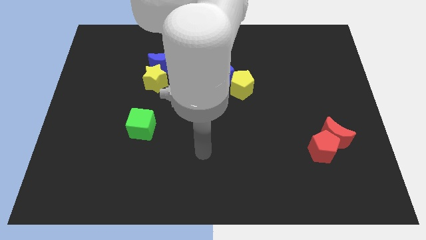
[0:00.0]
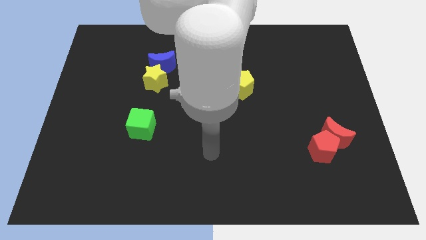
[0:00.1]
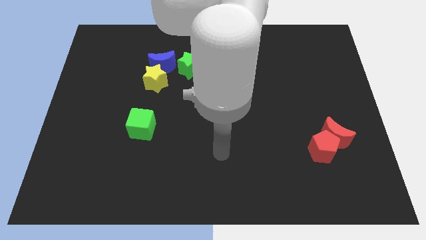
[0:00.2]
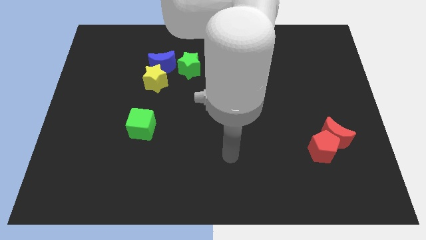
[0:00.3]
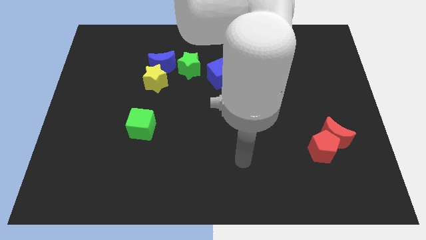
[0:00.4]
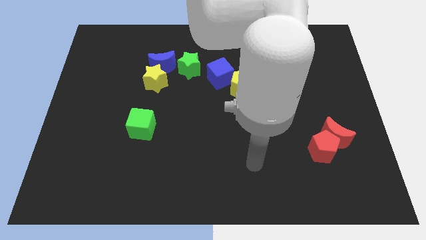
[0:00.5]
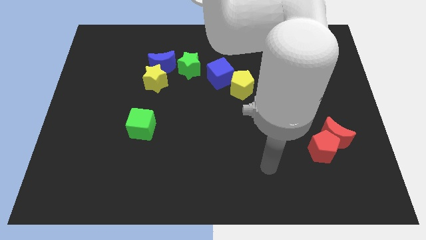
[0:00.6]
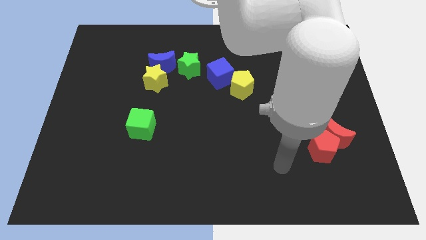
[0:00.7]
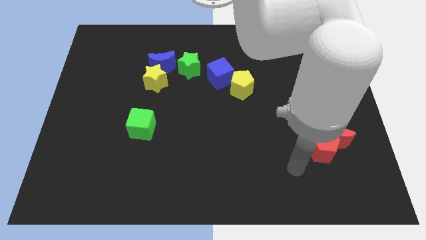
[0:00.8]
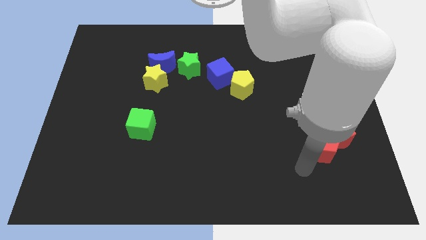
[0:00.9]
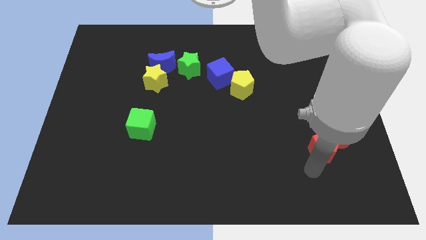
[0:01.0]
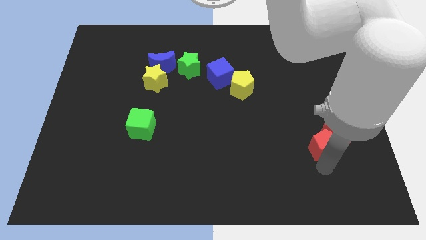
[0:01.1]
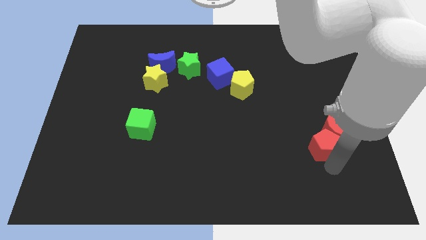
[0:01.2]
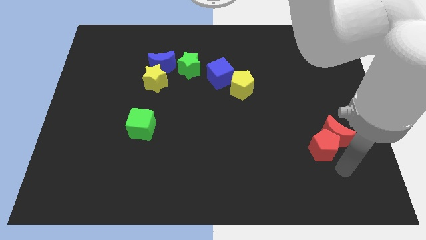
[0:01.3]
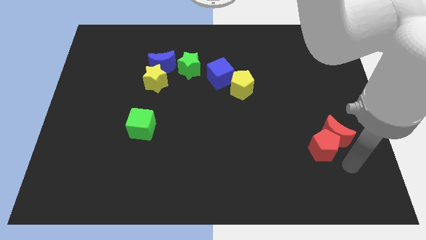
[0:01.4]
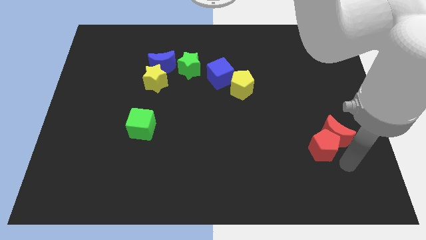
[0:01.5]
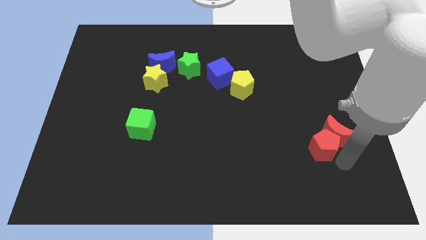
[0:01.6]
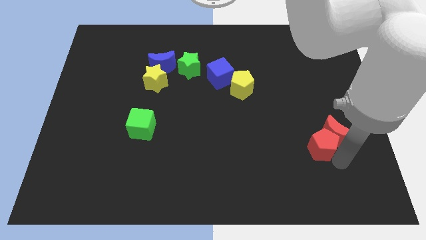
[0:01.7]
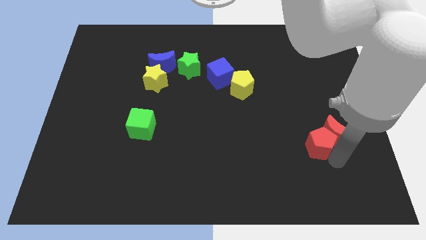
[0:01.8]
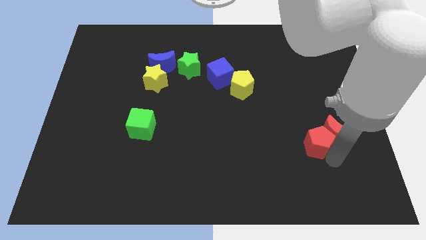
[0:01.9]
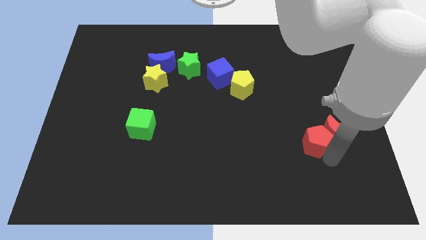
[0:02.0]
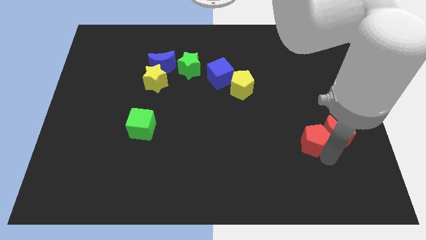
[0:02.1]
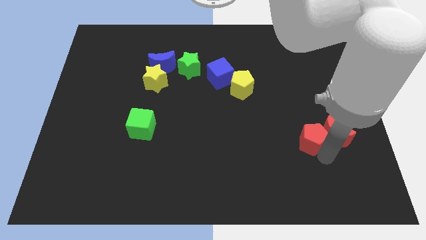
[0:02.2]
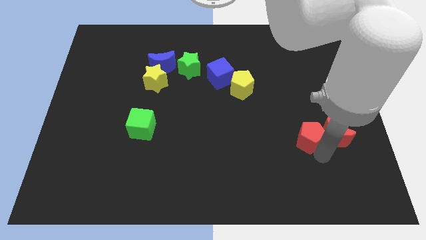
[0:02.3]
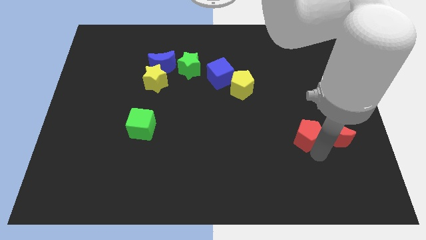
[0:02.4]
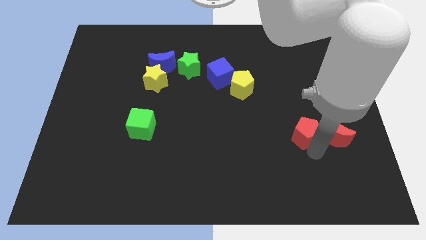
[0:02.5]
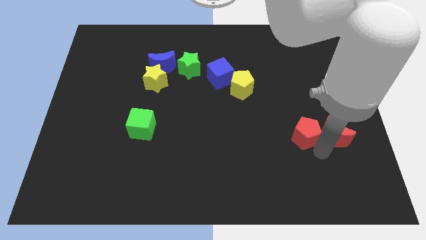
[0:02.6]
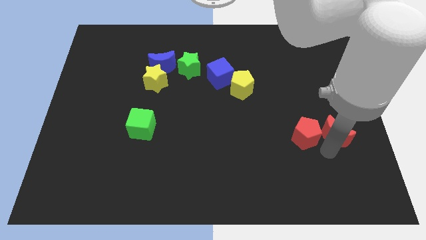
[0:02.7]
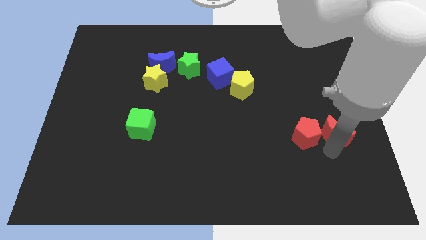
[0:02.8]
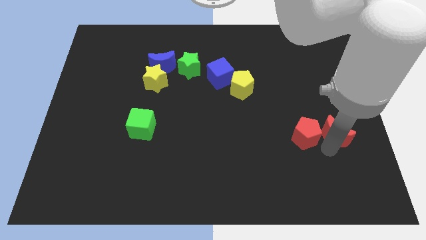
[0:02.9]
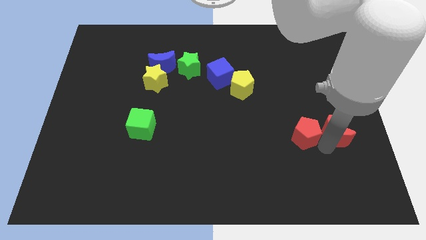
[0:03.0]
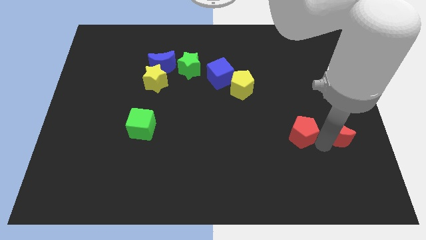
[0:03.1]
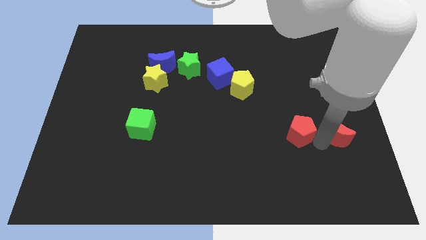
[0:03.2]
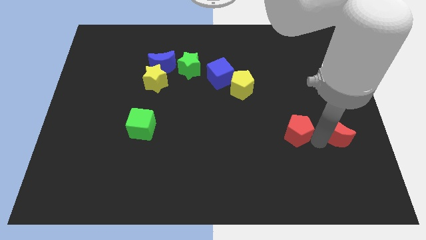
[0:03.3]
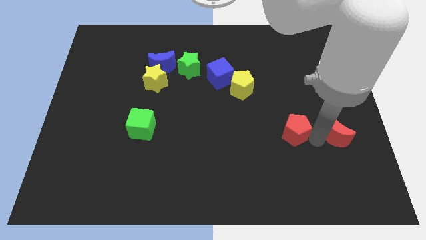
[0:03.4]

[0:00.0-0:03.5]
slide the red pentagon upwards and to the left diagonally somewhat

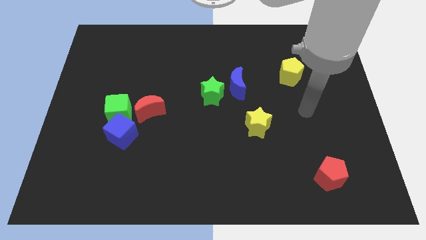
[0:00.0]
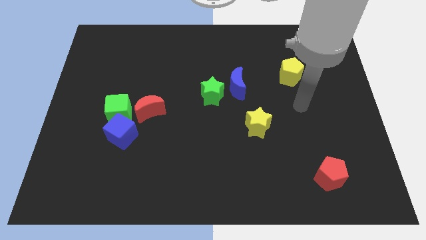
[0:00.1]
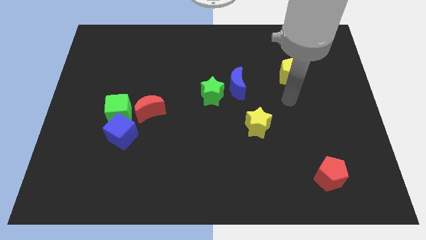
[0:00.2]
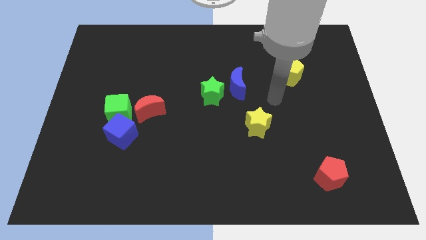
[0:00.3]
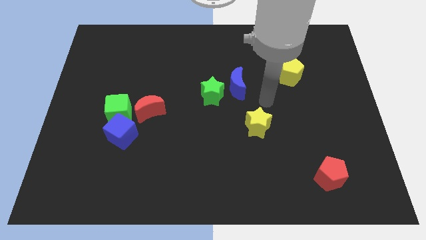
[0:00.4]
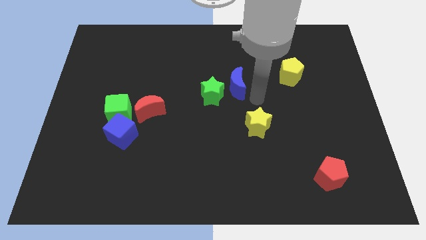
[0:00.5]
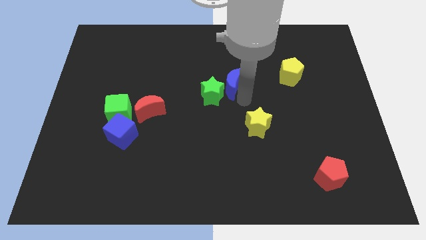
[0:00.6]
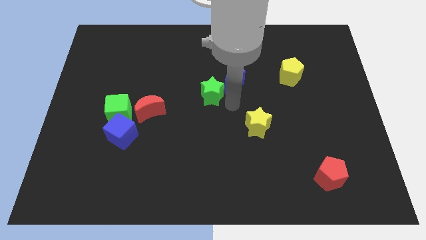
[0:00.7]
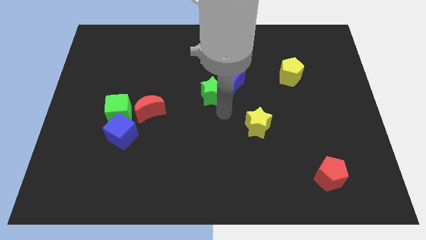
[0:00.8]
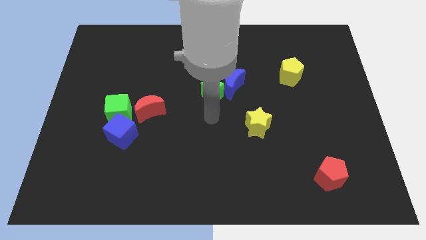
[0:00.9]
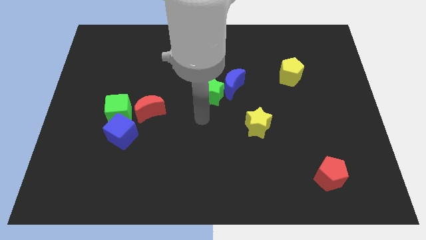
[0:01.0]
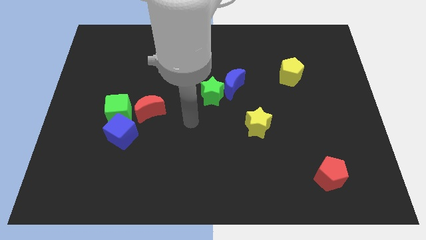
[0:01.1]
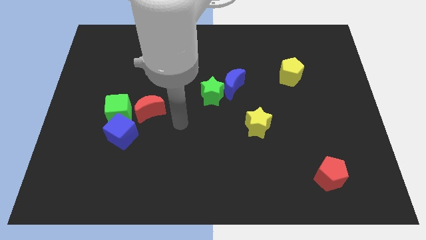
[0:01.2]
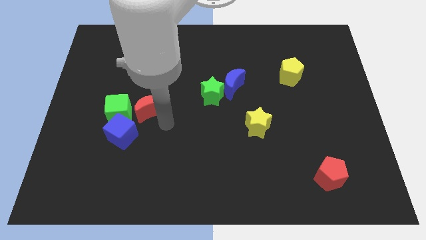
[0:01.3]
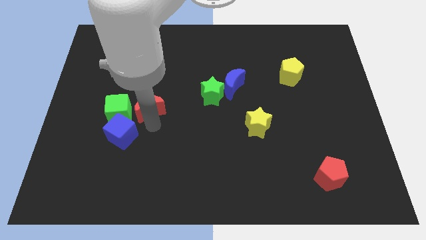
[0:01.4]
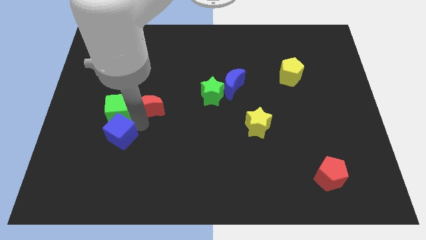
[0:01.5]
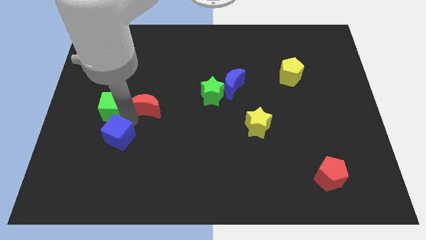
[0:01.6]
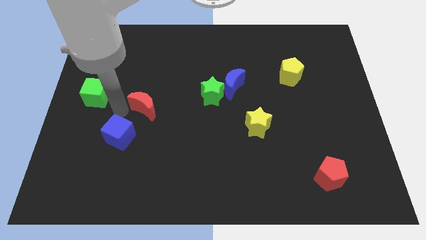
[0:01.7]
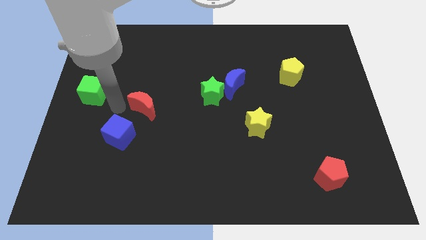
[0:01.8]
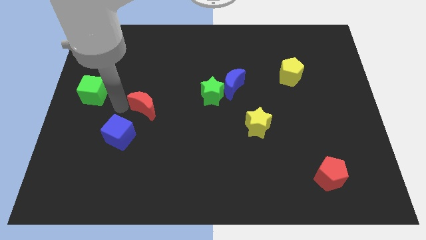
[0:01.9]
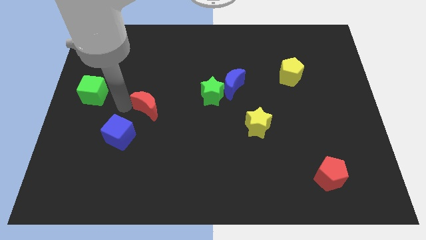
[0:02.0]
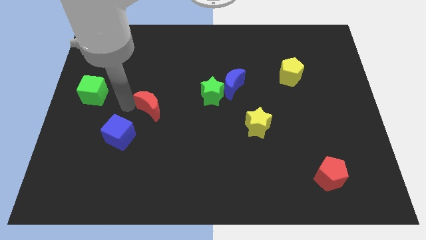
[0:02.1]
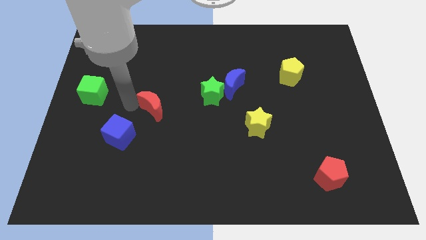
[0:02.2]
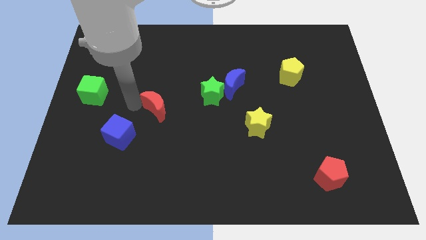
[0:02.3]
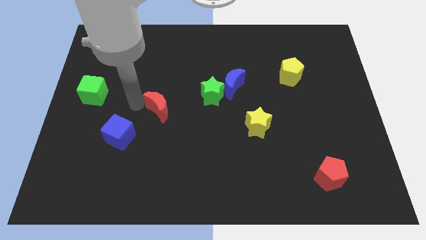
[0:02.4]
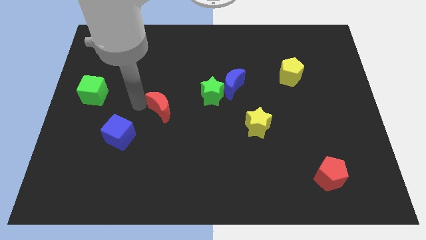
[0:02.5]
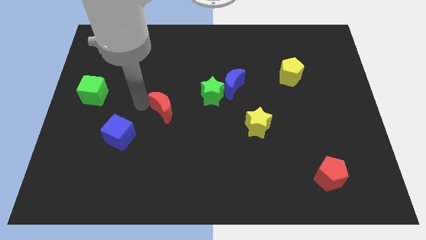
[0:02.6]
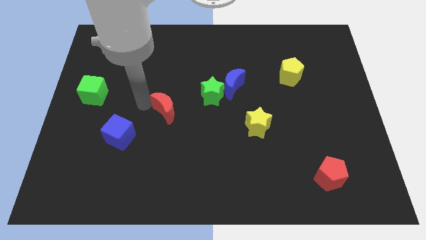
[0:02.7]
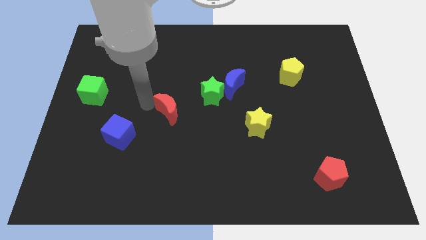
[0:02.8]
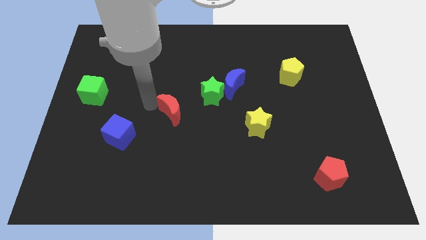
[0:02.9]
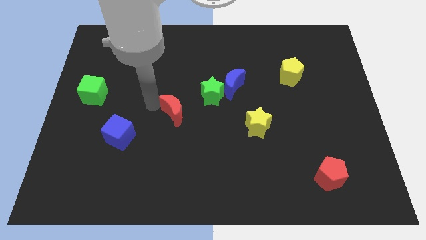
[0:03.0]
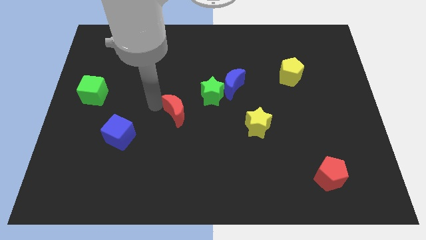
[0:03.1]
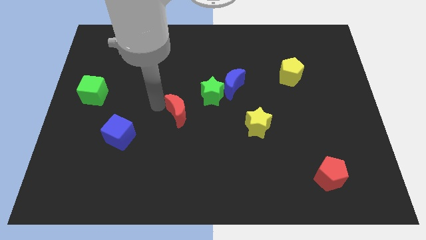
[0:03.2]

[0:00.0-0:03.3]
slightly move the red moon right

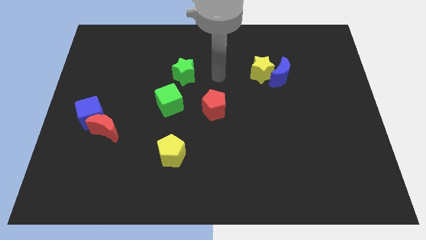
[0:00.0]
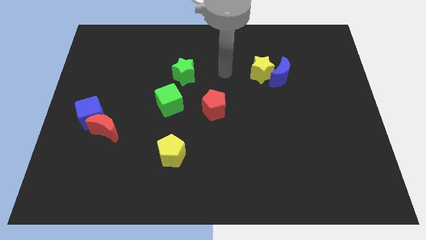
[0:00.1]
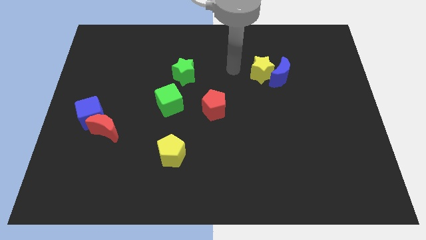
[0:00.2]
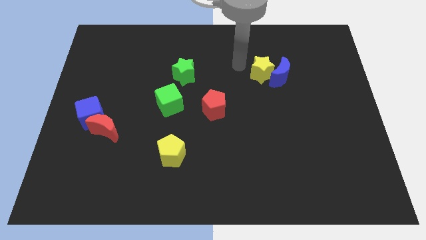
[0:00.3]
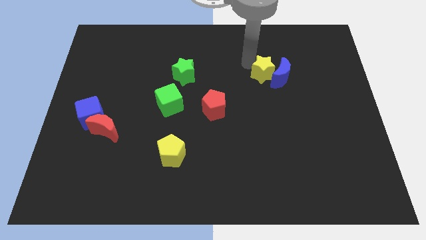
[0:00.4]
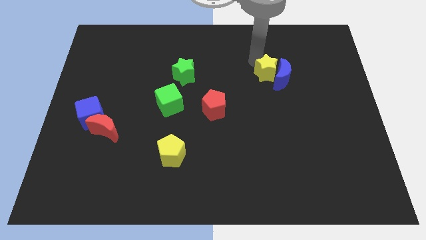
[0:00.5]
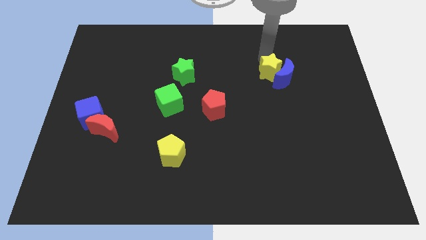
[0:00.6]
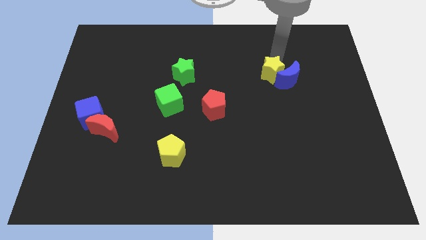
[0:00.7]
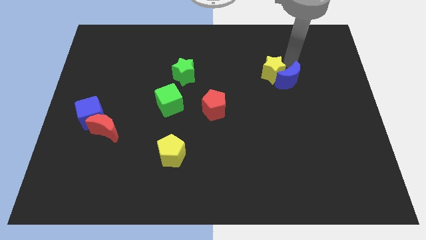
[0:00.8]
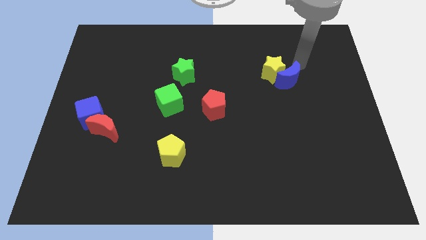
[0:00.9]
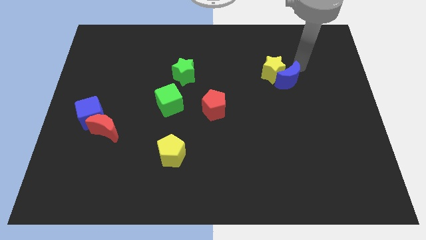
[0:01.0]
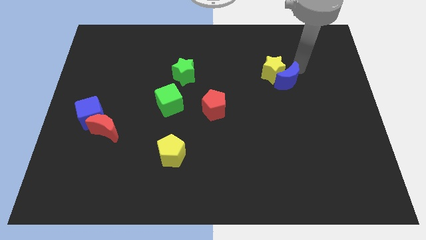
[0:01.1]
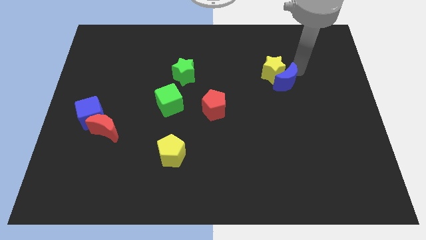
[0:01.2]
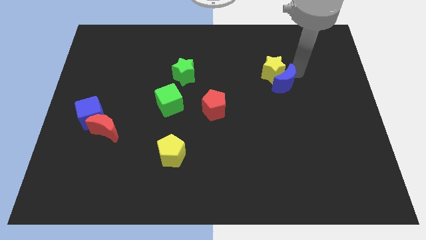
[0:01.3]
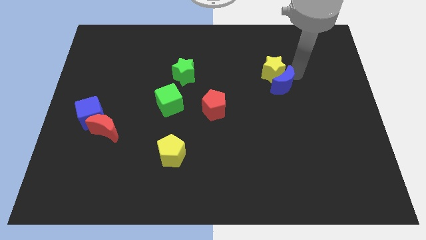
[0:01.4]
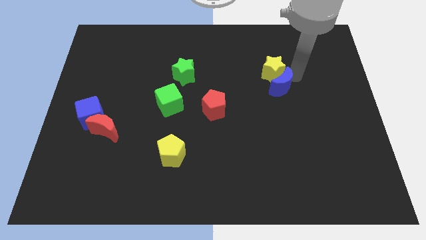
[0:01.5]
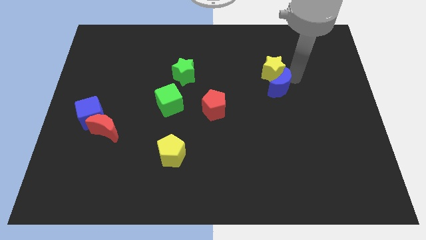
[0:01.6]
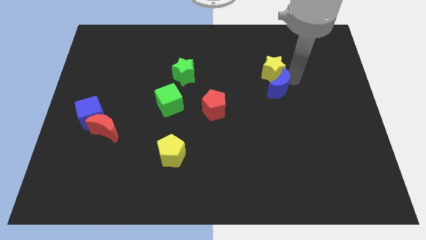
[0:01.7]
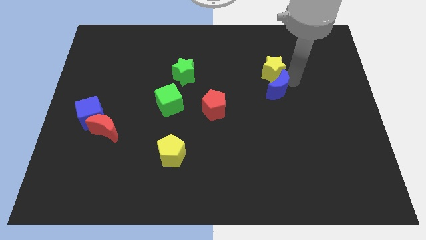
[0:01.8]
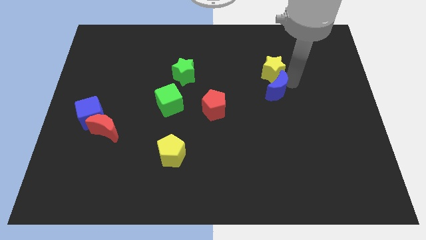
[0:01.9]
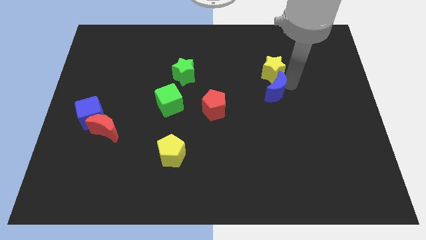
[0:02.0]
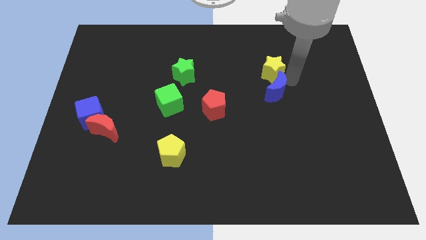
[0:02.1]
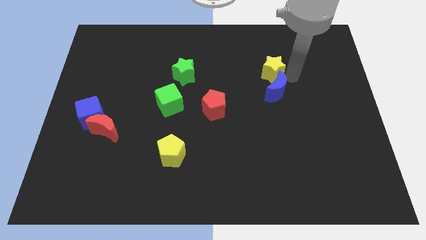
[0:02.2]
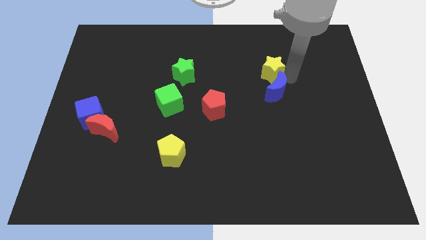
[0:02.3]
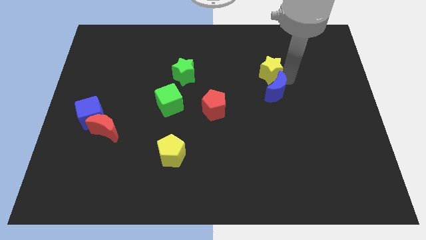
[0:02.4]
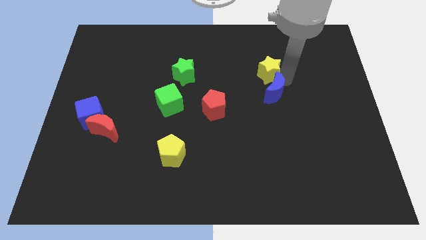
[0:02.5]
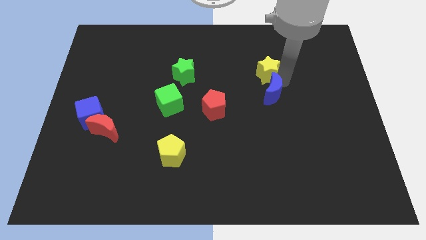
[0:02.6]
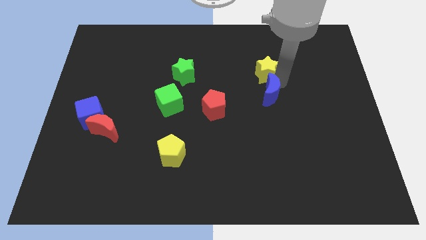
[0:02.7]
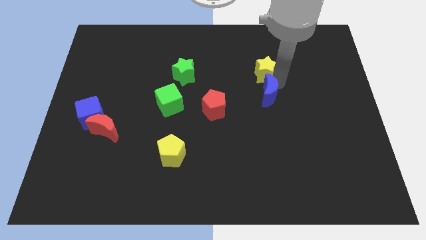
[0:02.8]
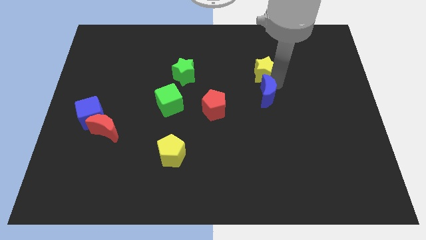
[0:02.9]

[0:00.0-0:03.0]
slightly push the blue moon downwards and left diagonally
